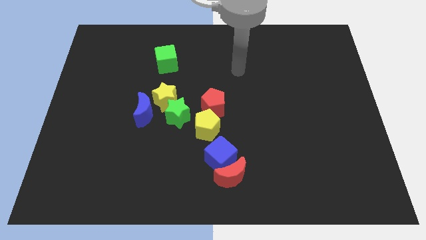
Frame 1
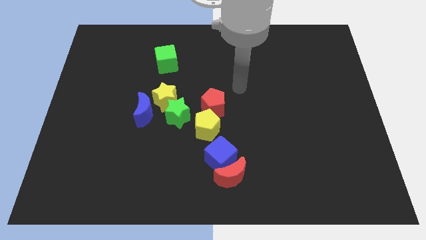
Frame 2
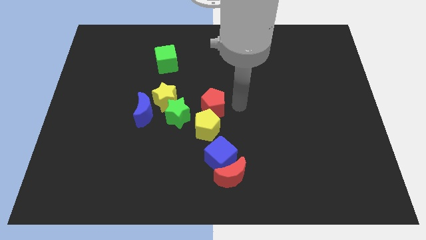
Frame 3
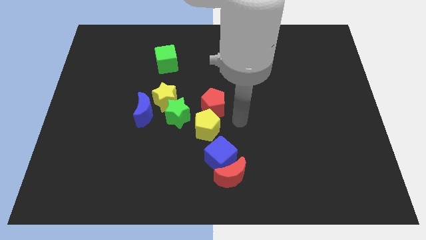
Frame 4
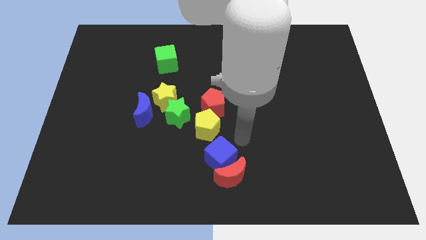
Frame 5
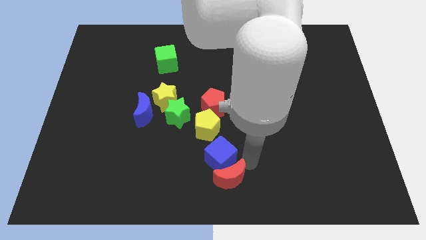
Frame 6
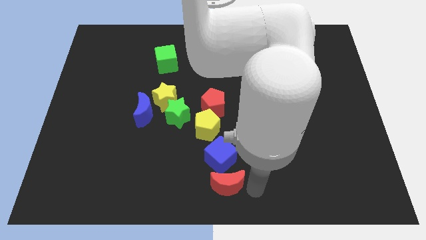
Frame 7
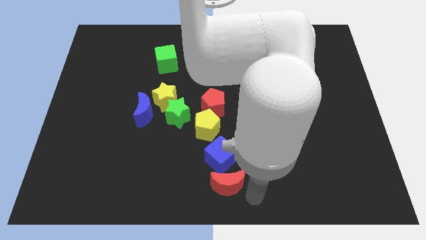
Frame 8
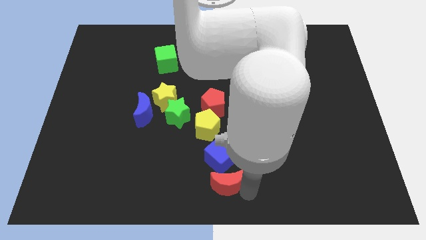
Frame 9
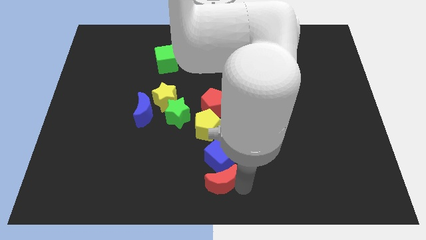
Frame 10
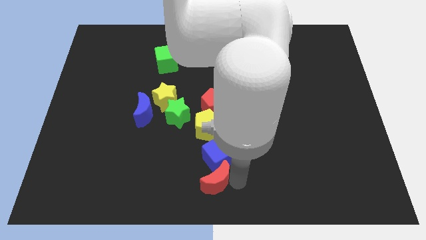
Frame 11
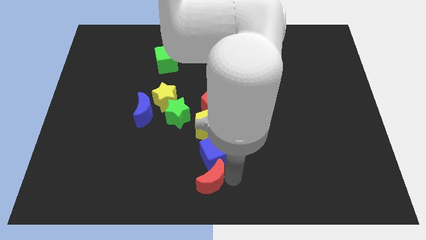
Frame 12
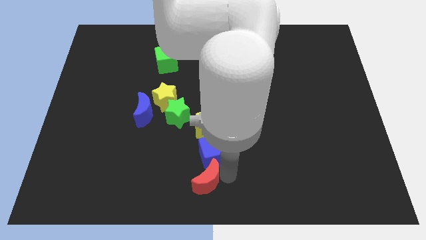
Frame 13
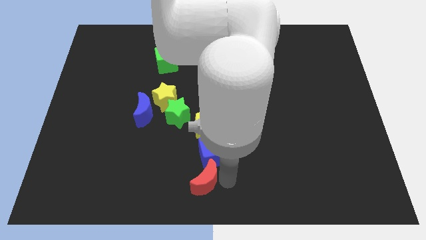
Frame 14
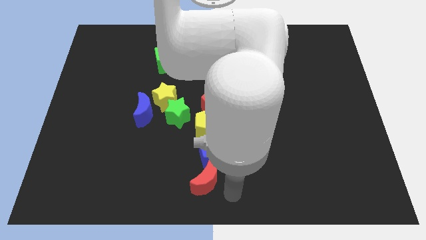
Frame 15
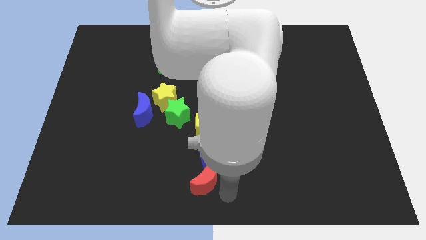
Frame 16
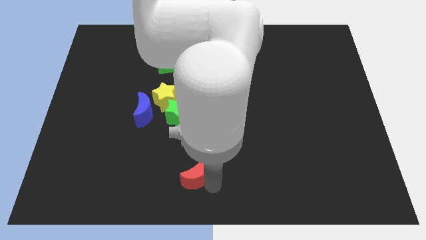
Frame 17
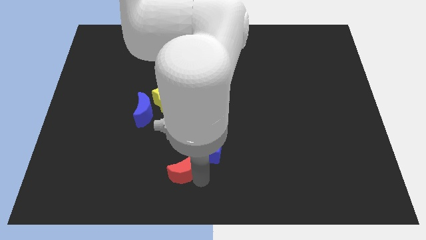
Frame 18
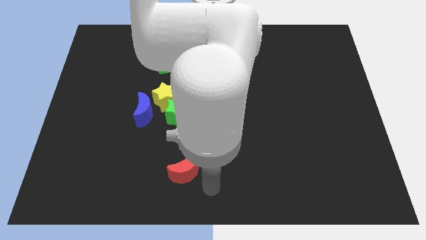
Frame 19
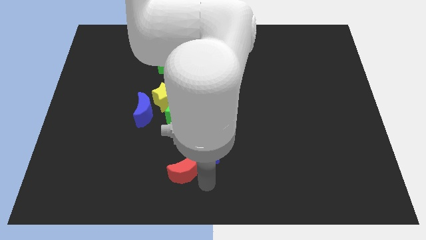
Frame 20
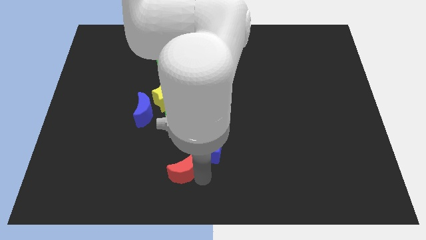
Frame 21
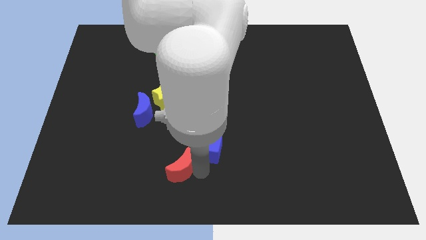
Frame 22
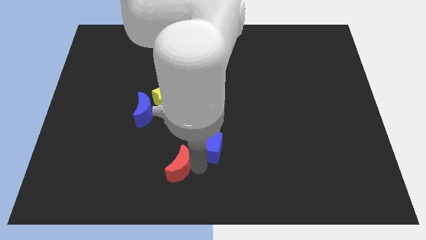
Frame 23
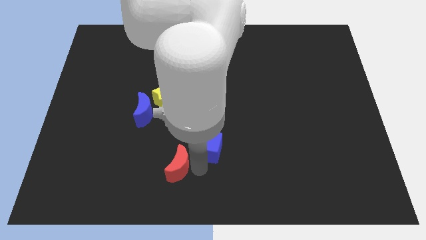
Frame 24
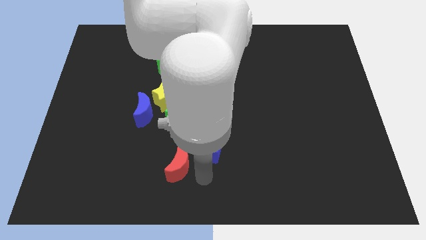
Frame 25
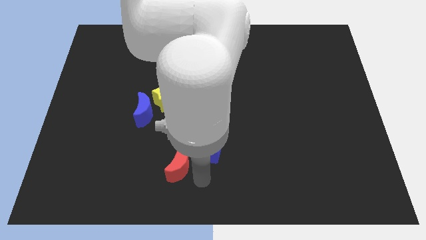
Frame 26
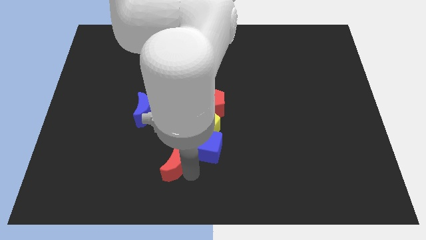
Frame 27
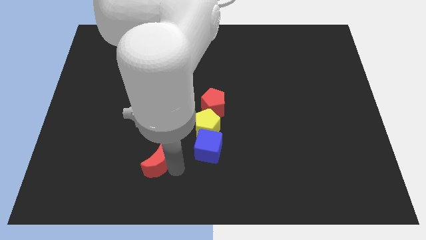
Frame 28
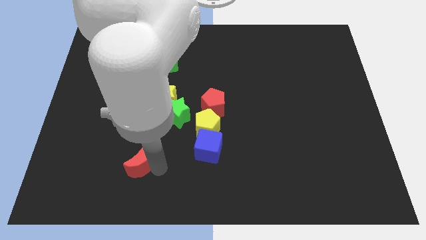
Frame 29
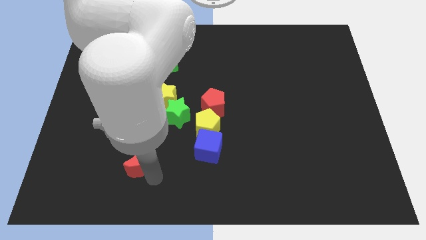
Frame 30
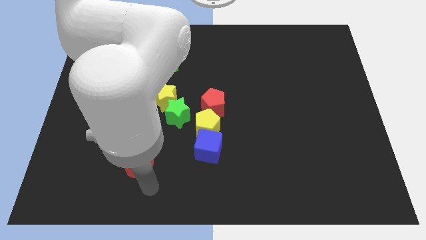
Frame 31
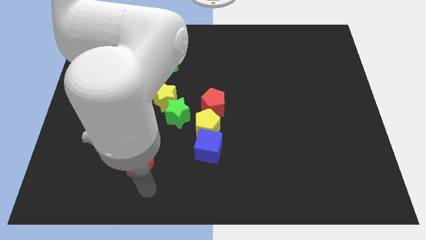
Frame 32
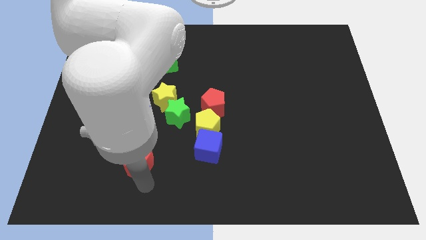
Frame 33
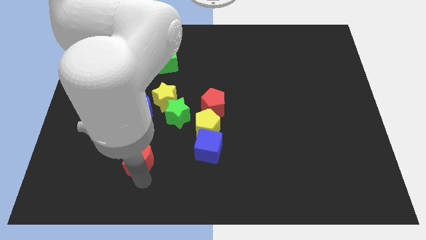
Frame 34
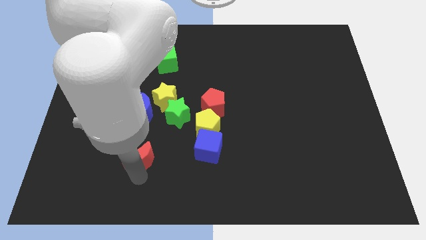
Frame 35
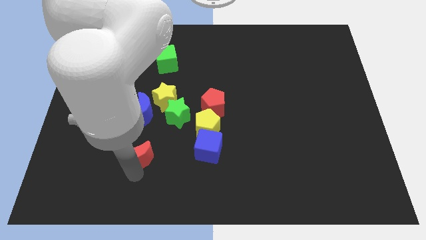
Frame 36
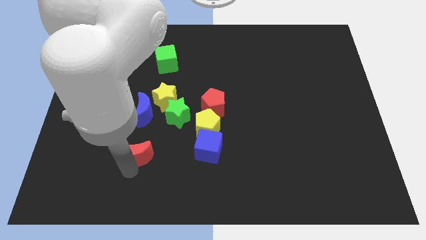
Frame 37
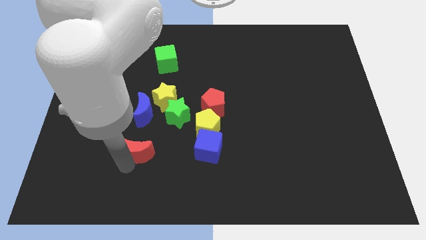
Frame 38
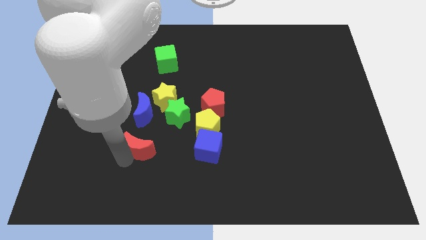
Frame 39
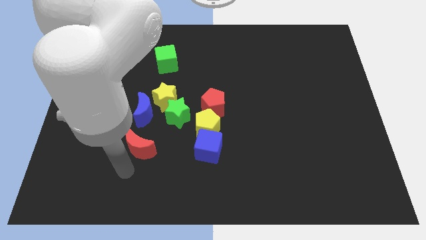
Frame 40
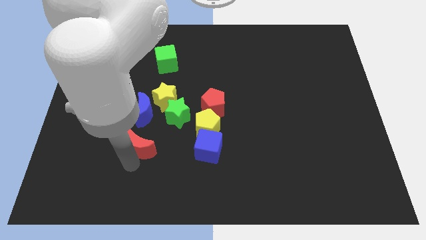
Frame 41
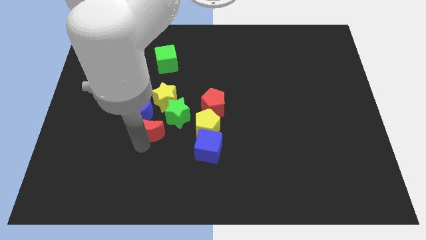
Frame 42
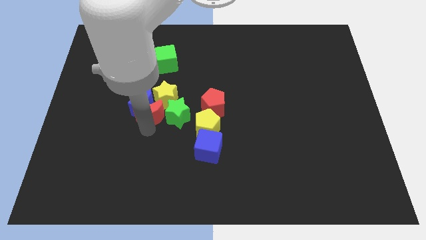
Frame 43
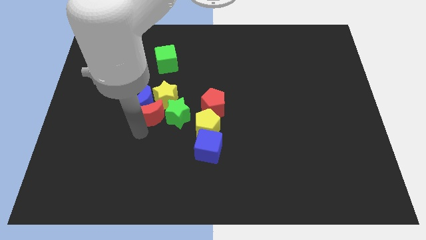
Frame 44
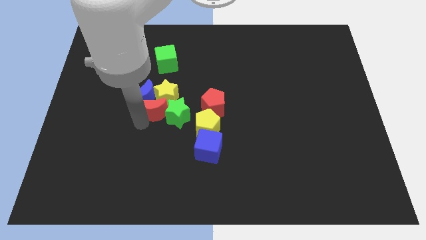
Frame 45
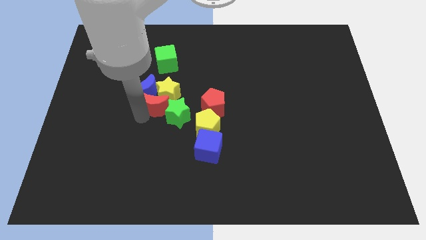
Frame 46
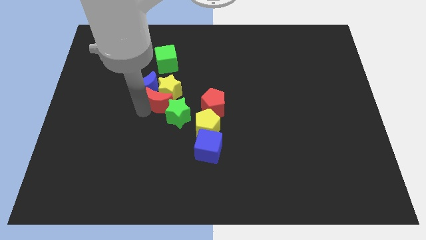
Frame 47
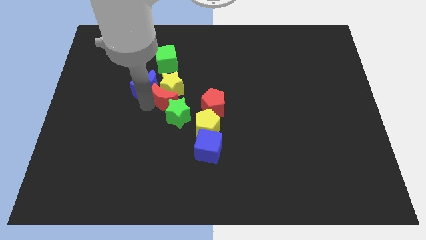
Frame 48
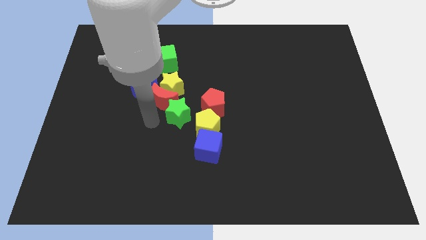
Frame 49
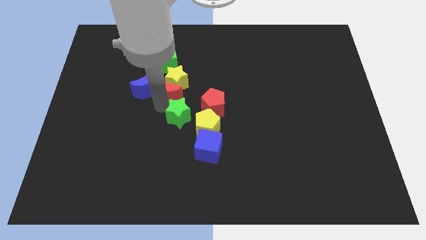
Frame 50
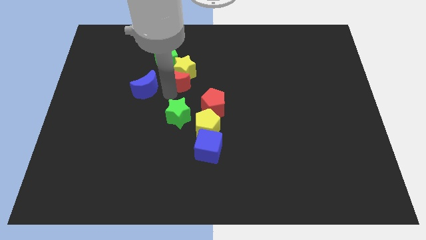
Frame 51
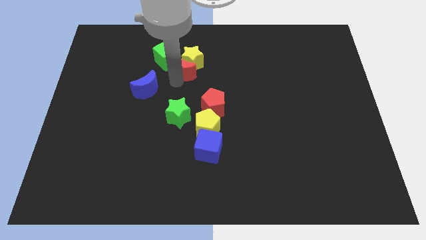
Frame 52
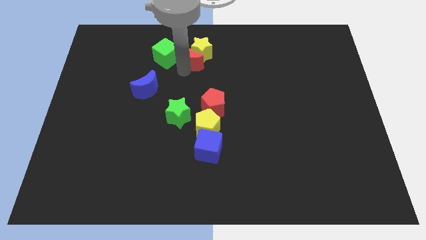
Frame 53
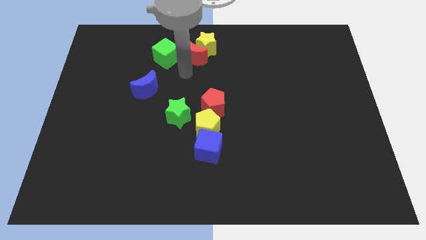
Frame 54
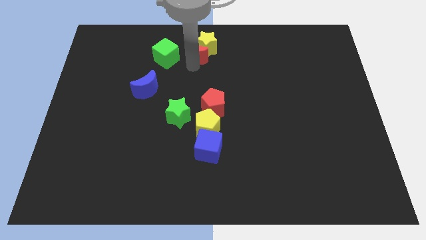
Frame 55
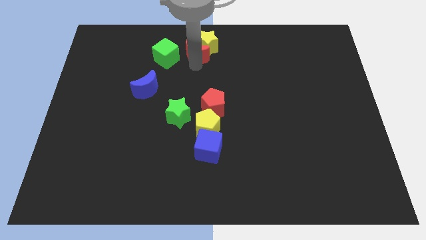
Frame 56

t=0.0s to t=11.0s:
push the red moon to the towards your base
